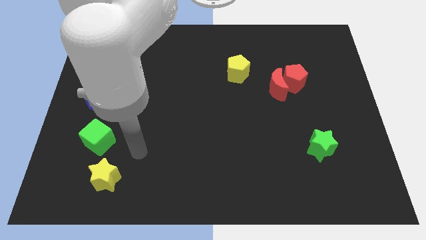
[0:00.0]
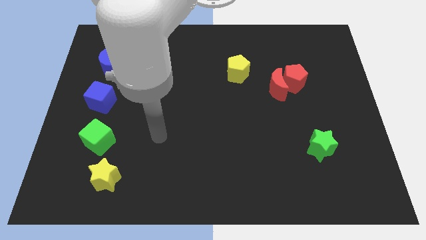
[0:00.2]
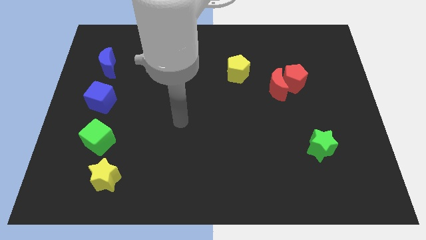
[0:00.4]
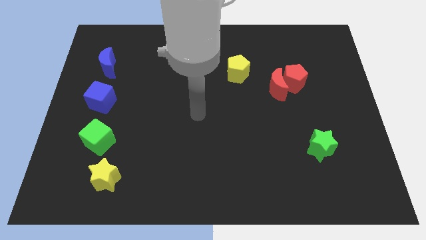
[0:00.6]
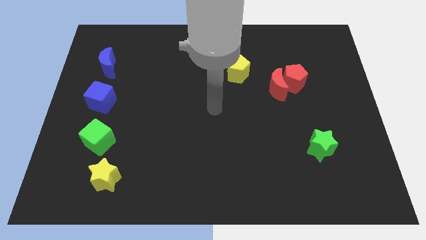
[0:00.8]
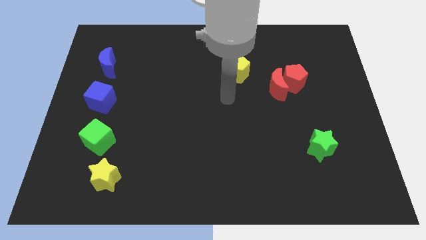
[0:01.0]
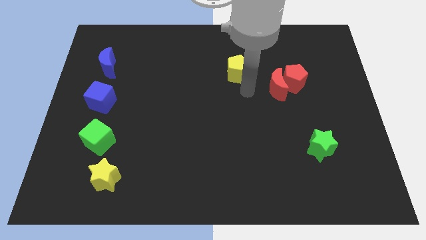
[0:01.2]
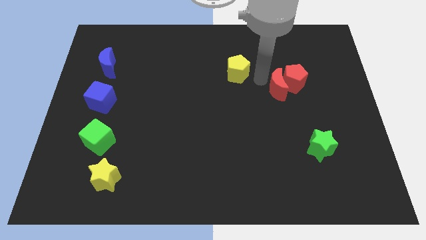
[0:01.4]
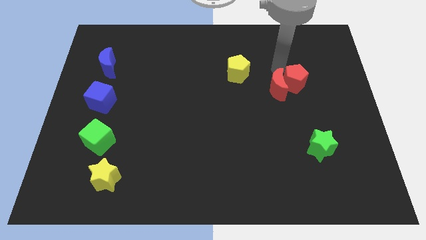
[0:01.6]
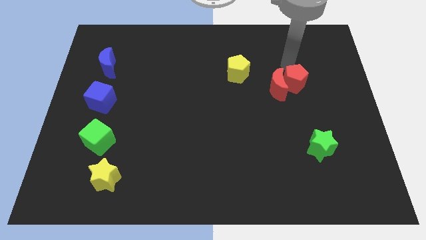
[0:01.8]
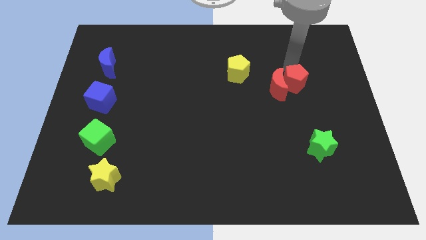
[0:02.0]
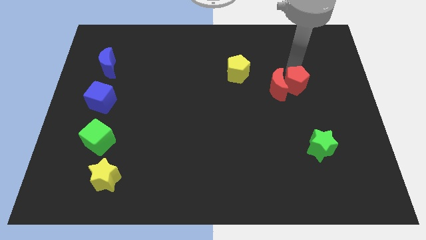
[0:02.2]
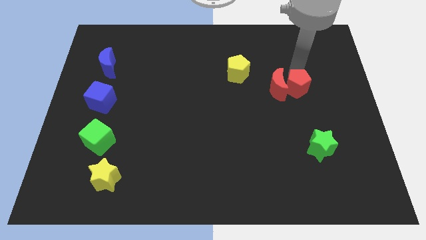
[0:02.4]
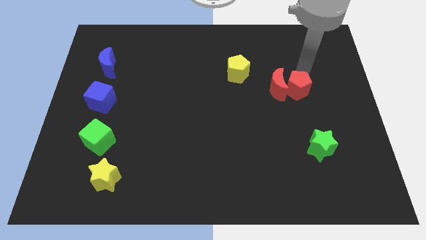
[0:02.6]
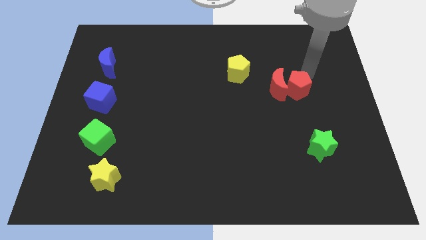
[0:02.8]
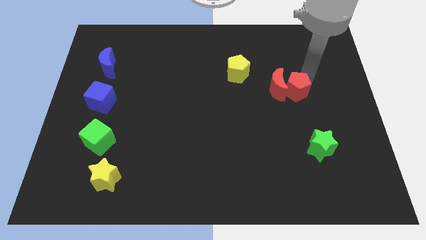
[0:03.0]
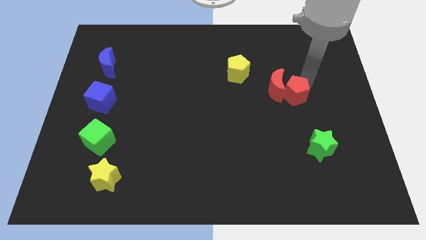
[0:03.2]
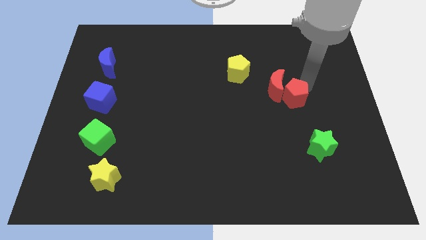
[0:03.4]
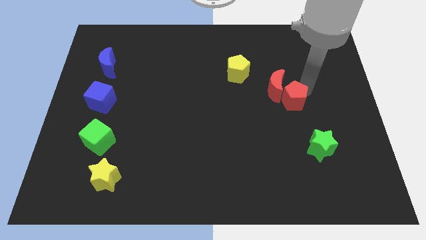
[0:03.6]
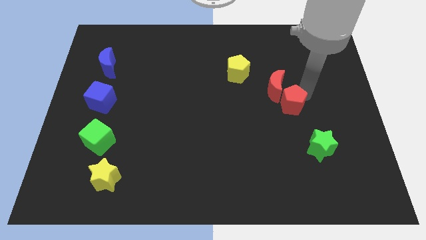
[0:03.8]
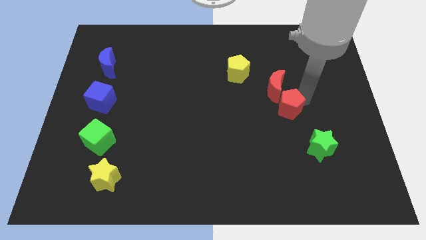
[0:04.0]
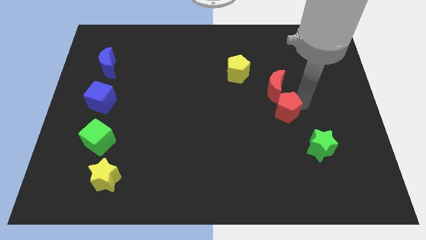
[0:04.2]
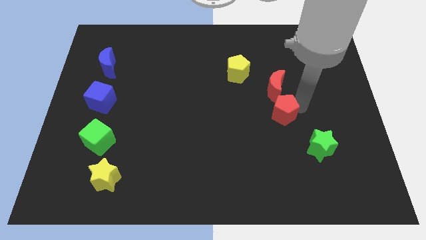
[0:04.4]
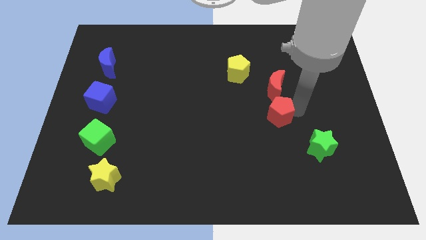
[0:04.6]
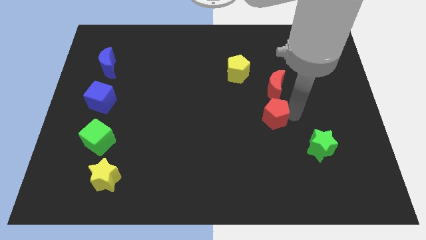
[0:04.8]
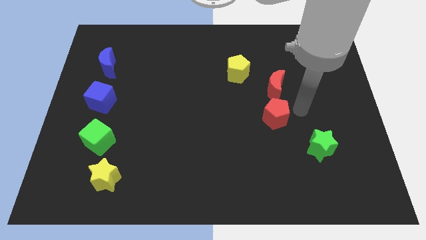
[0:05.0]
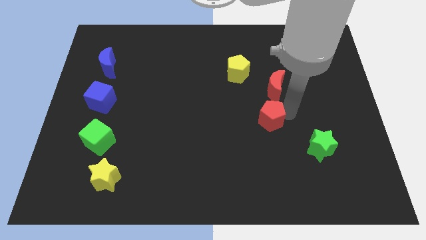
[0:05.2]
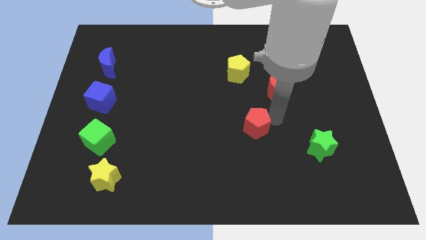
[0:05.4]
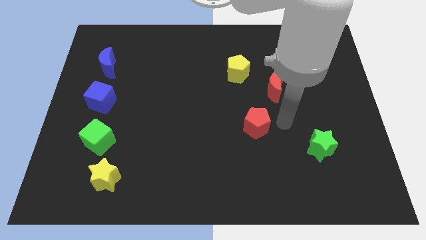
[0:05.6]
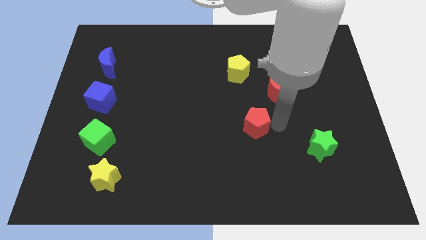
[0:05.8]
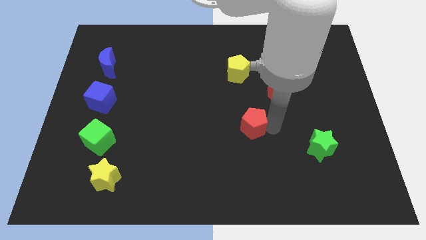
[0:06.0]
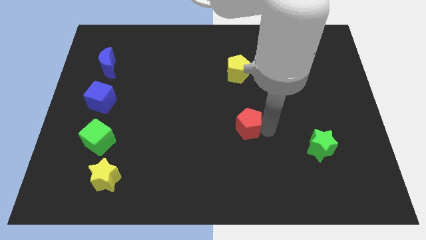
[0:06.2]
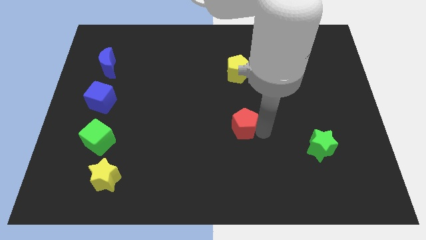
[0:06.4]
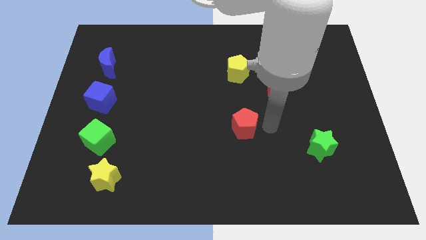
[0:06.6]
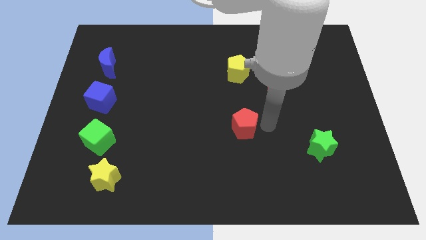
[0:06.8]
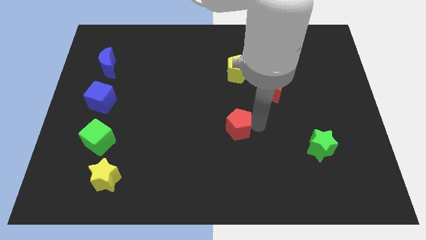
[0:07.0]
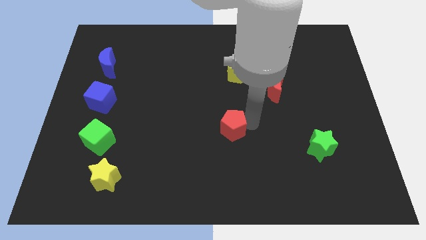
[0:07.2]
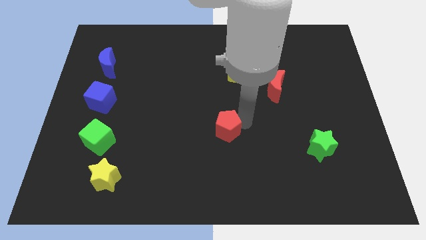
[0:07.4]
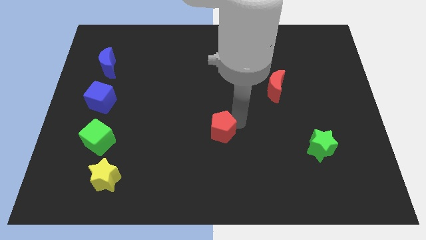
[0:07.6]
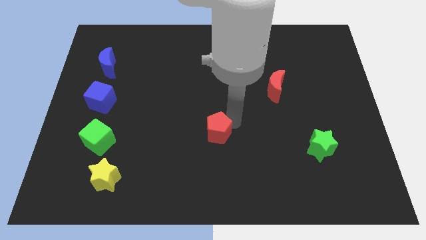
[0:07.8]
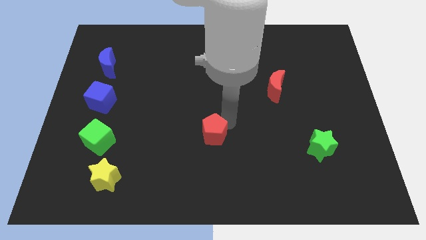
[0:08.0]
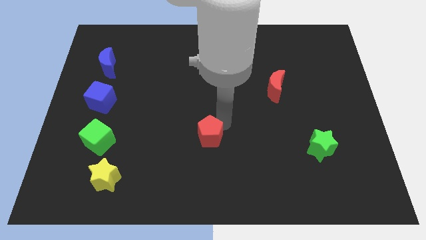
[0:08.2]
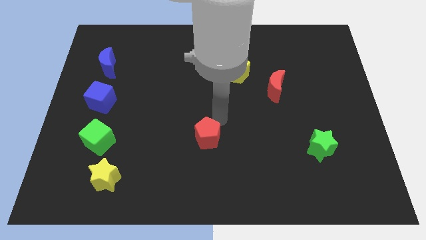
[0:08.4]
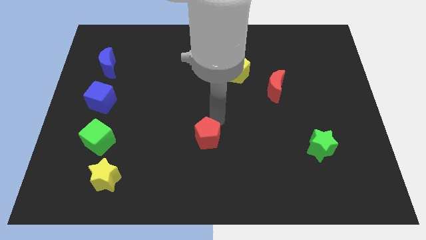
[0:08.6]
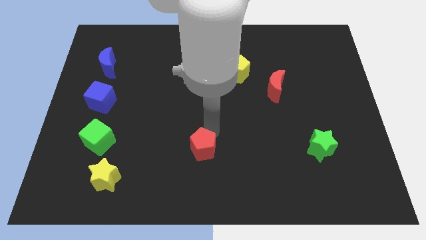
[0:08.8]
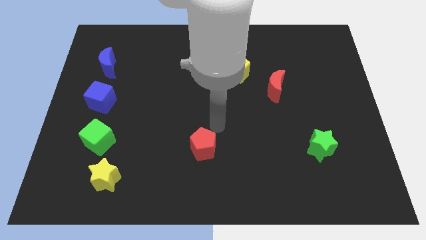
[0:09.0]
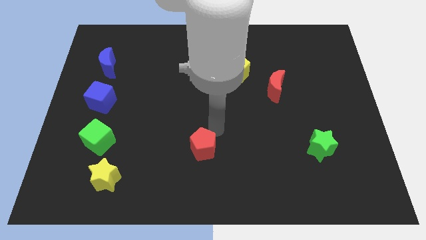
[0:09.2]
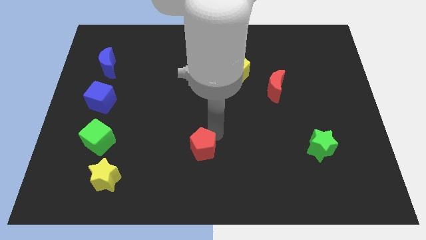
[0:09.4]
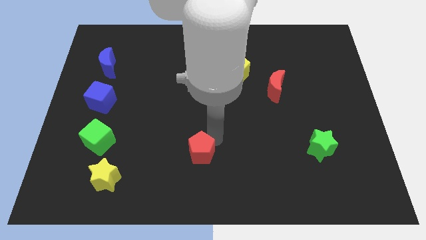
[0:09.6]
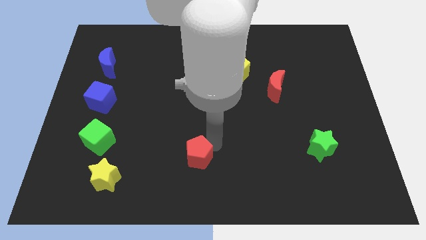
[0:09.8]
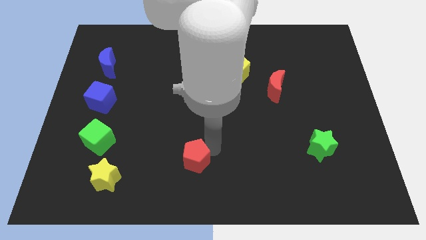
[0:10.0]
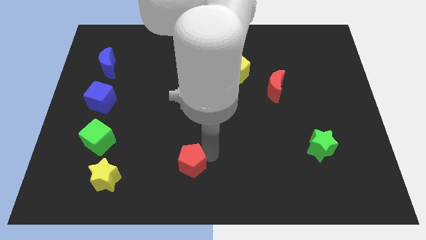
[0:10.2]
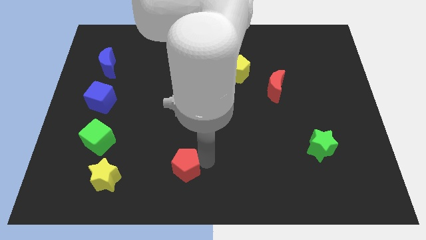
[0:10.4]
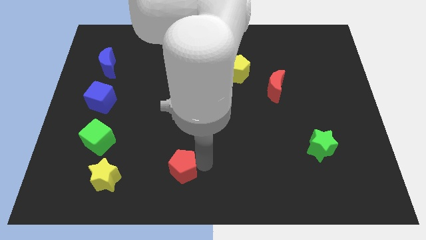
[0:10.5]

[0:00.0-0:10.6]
slide the red pentagon just right of the yellow star

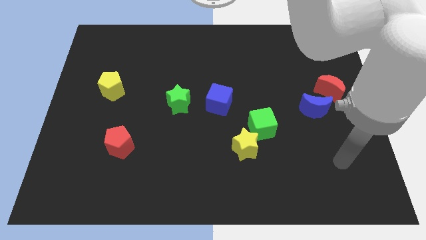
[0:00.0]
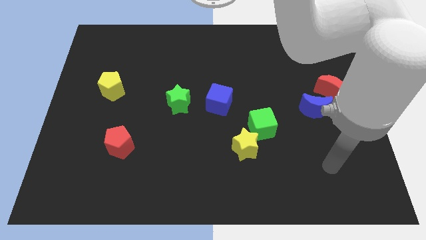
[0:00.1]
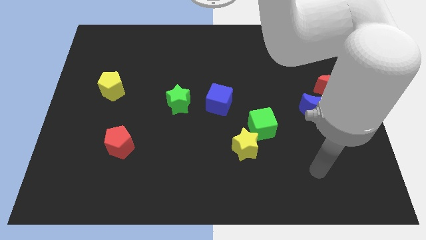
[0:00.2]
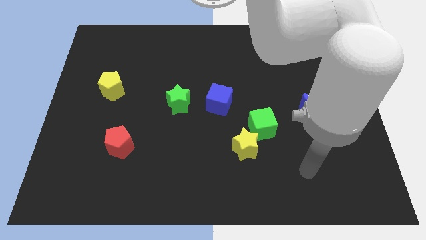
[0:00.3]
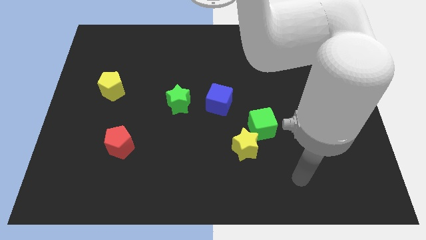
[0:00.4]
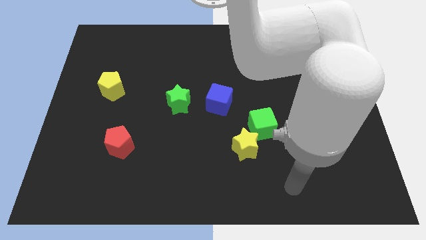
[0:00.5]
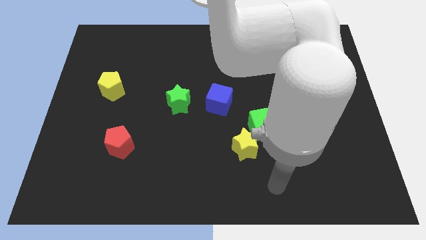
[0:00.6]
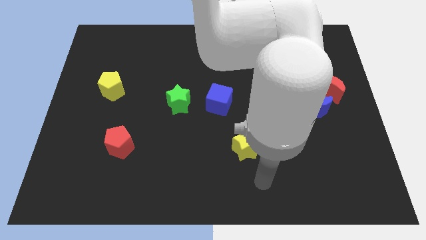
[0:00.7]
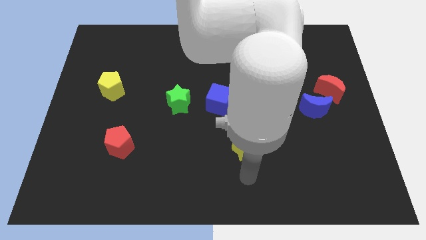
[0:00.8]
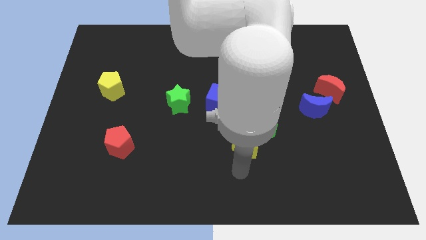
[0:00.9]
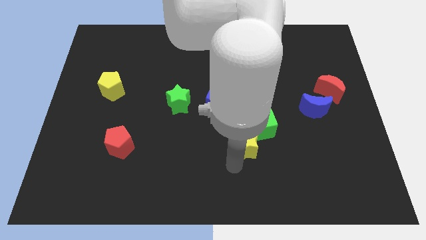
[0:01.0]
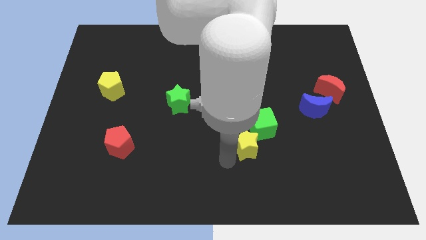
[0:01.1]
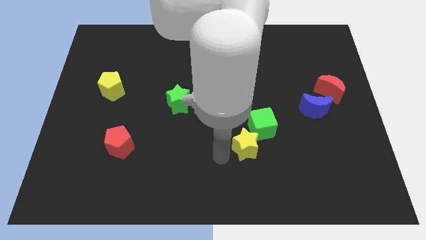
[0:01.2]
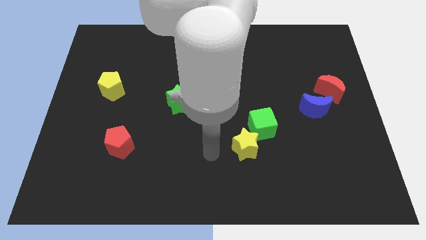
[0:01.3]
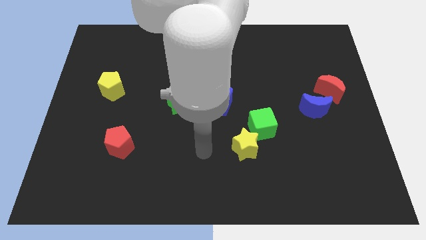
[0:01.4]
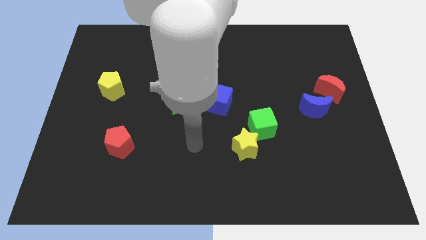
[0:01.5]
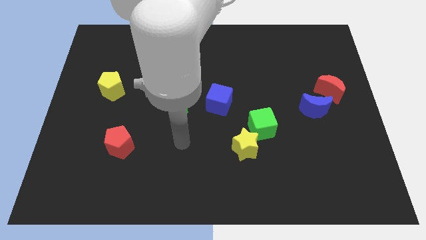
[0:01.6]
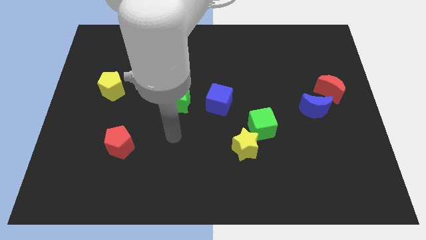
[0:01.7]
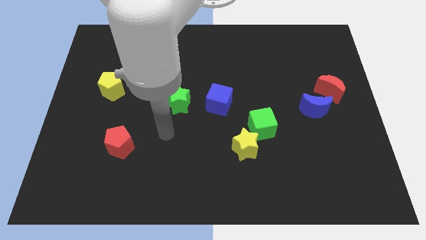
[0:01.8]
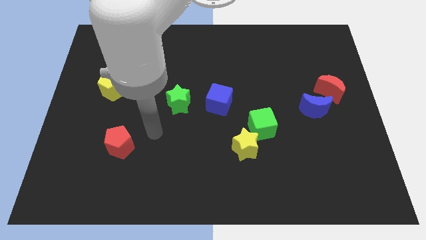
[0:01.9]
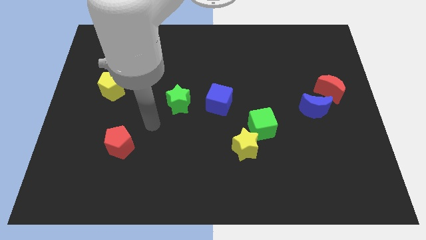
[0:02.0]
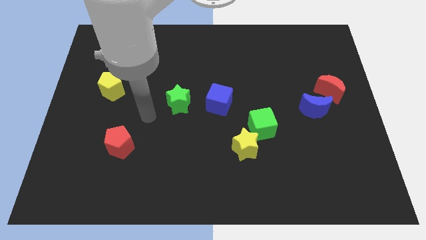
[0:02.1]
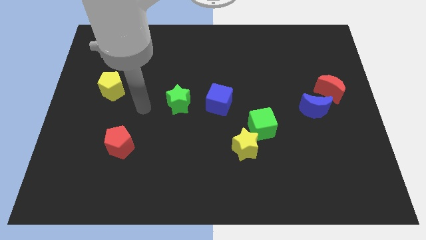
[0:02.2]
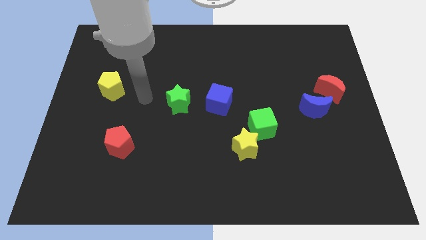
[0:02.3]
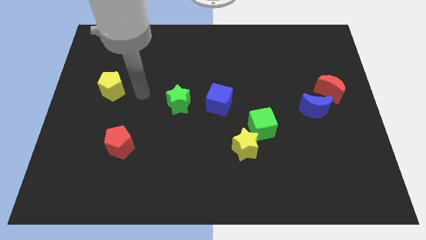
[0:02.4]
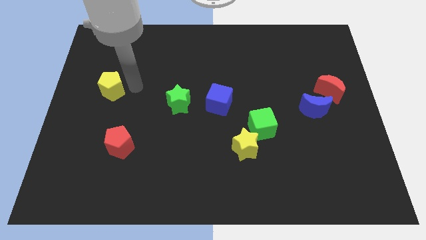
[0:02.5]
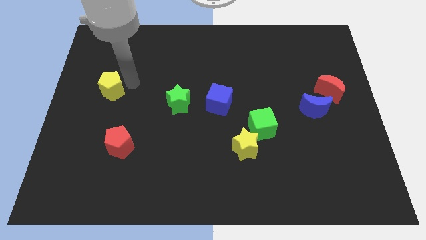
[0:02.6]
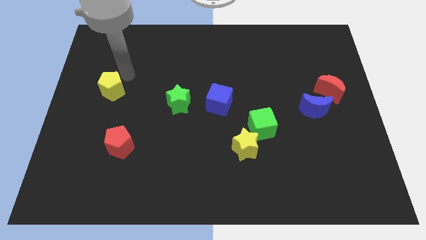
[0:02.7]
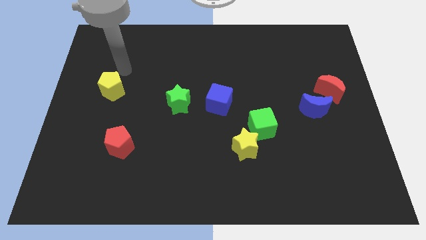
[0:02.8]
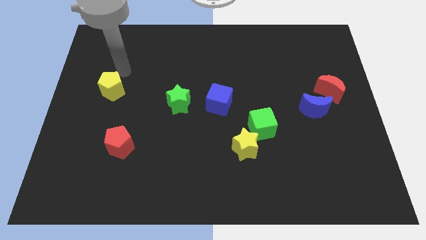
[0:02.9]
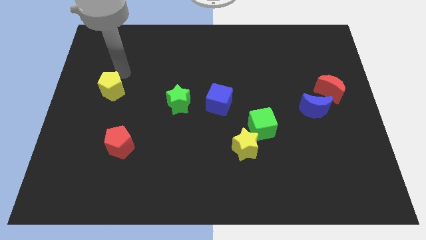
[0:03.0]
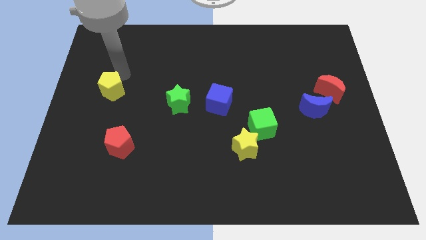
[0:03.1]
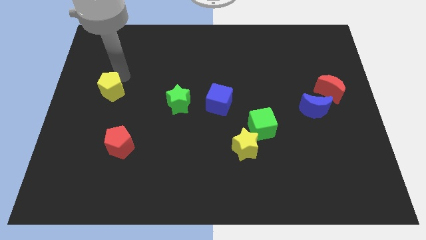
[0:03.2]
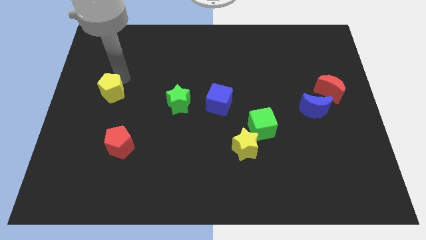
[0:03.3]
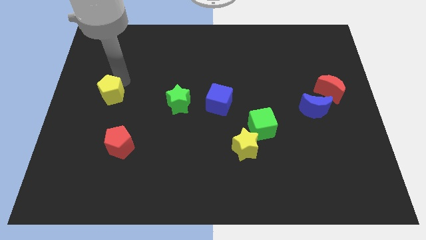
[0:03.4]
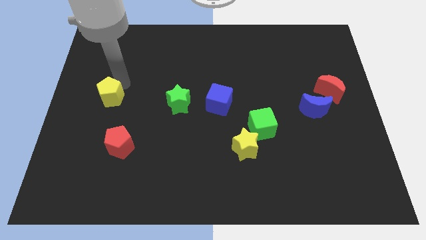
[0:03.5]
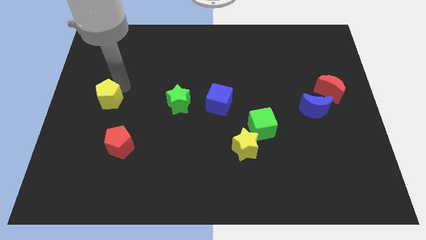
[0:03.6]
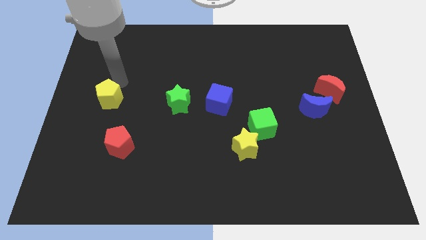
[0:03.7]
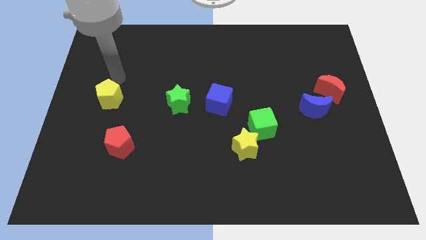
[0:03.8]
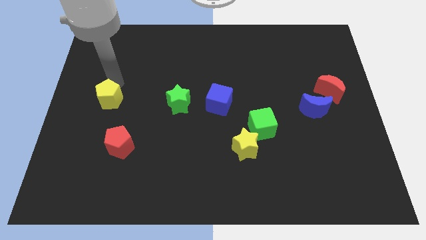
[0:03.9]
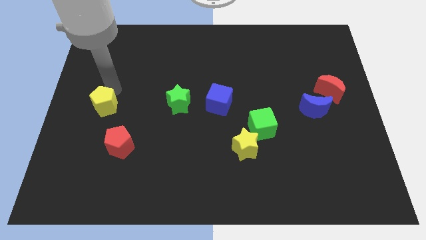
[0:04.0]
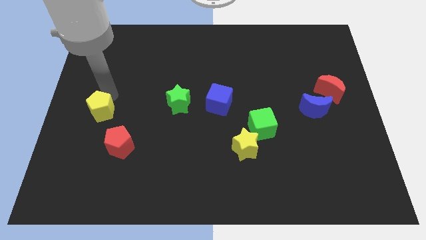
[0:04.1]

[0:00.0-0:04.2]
push the yellow pentagon diagonally up and to the left of the red pentagon
